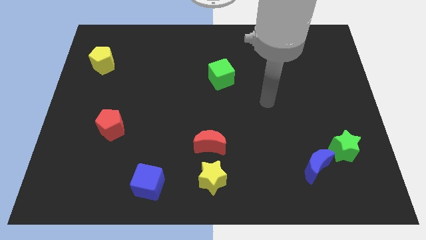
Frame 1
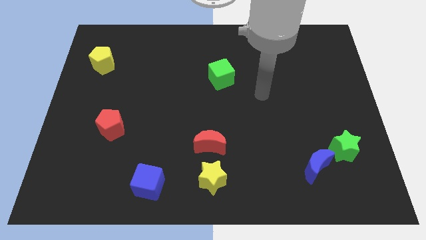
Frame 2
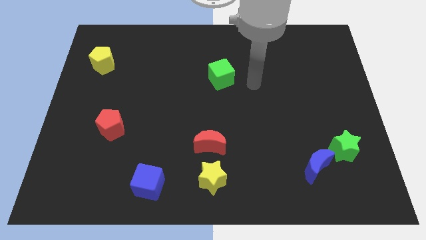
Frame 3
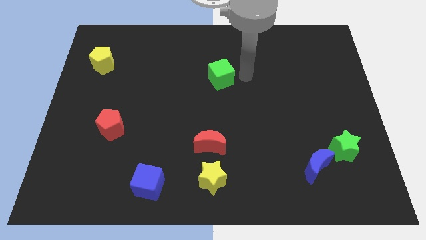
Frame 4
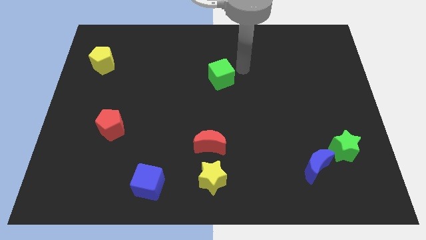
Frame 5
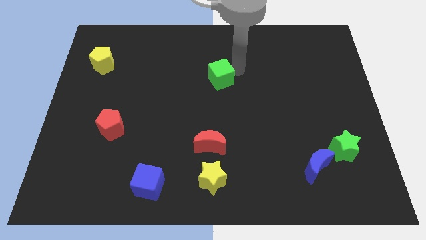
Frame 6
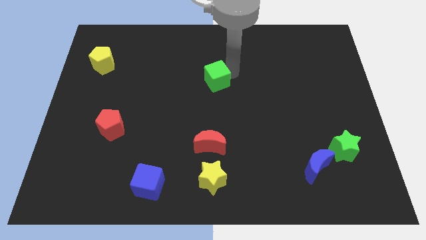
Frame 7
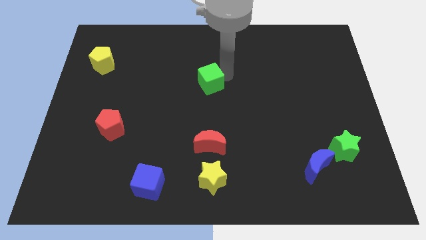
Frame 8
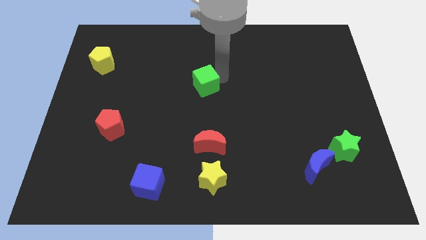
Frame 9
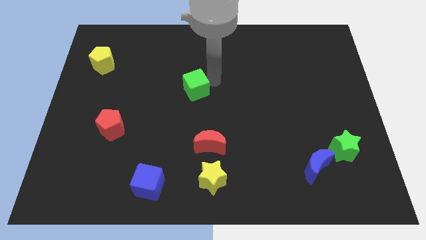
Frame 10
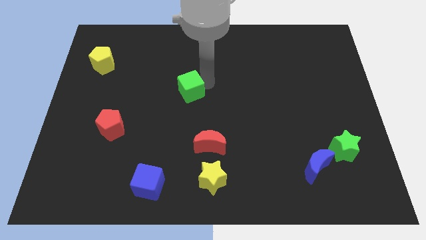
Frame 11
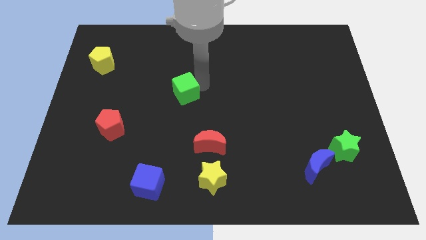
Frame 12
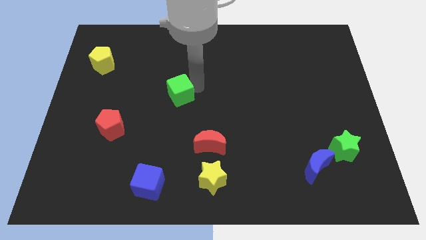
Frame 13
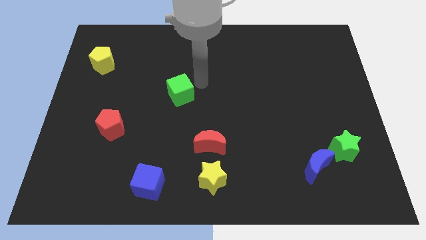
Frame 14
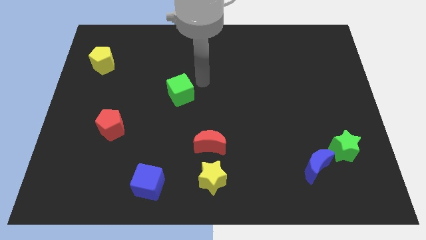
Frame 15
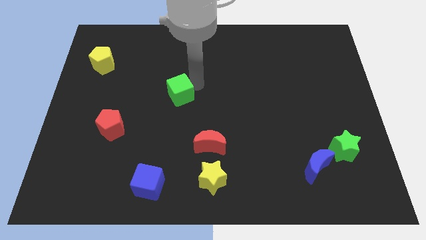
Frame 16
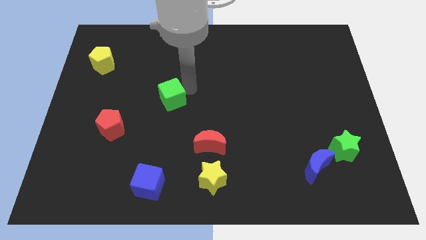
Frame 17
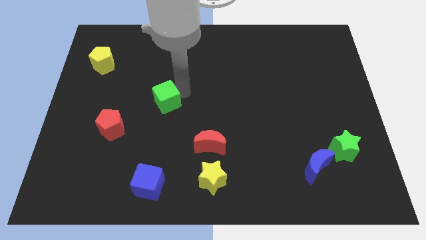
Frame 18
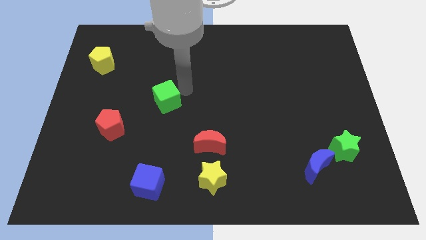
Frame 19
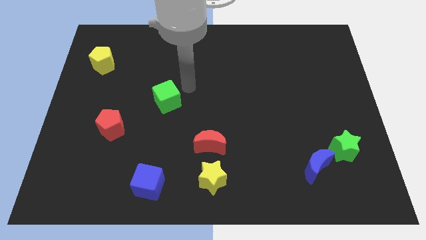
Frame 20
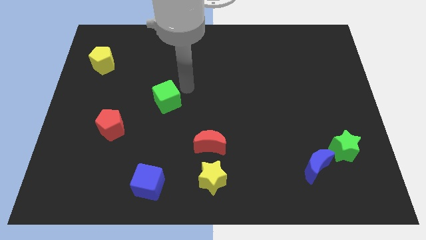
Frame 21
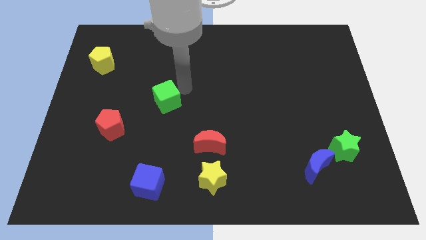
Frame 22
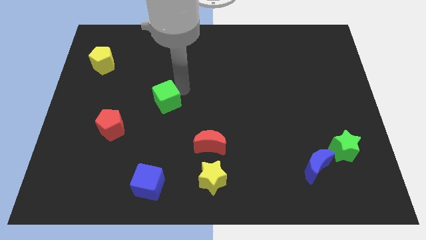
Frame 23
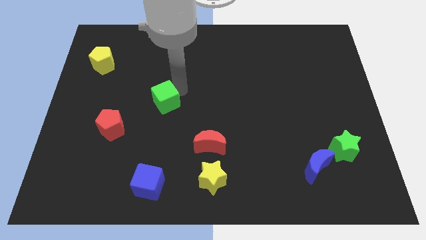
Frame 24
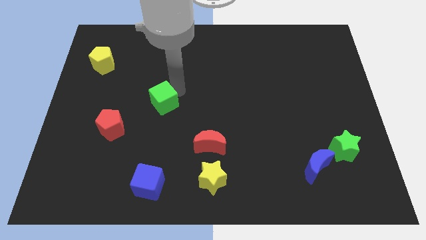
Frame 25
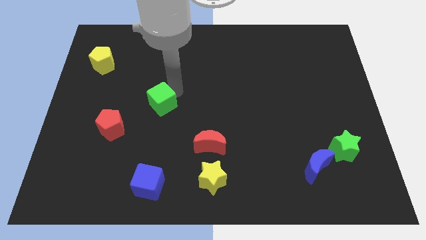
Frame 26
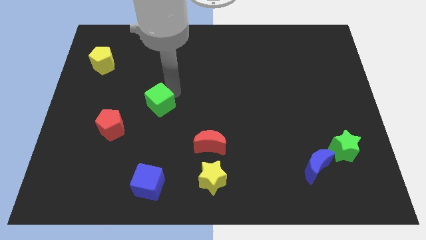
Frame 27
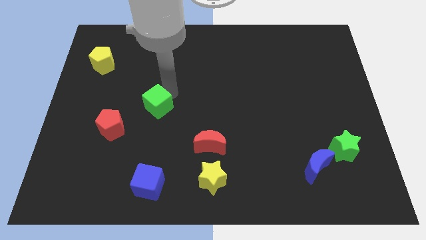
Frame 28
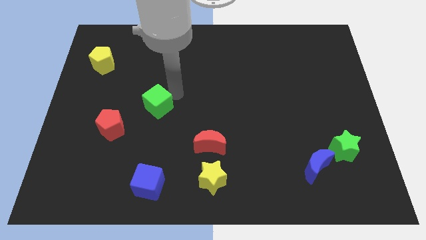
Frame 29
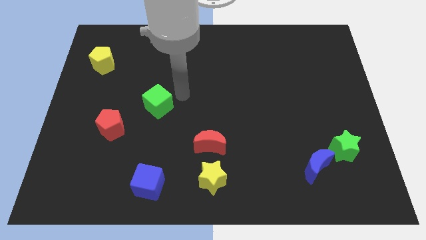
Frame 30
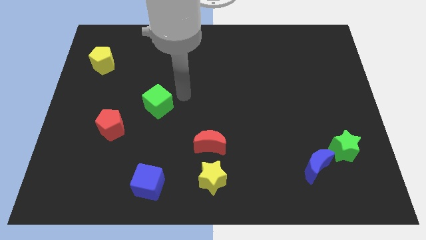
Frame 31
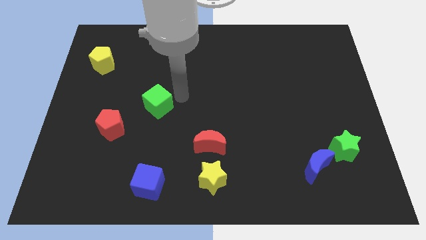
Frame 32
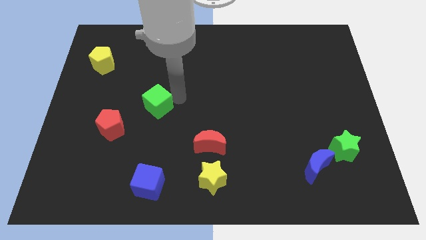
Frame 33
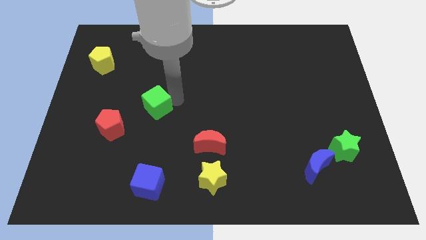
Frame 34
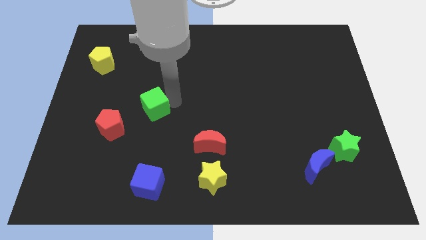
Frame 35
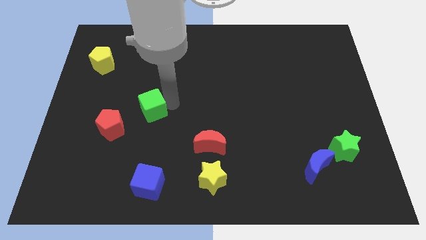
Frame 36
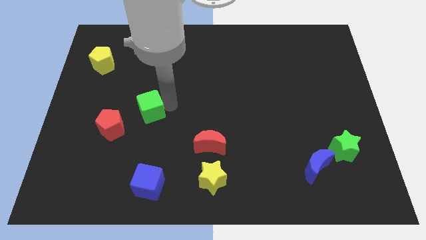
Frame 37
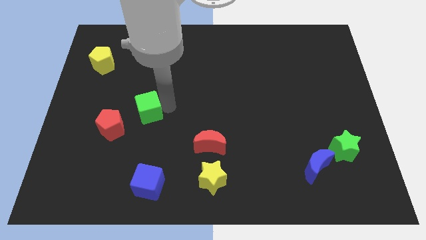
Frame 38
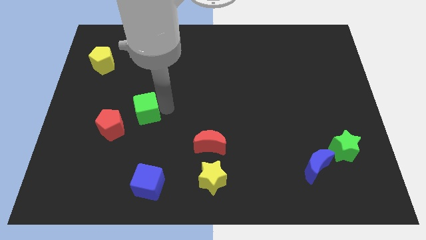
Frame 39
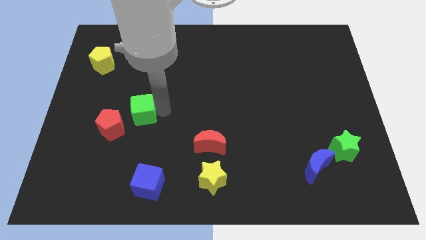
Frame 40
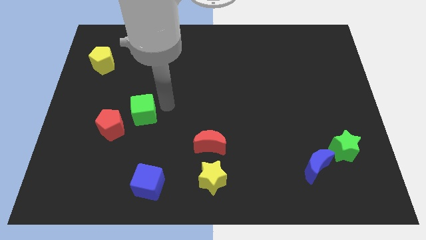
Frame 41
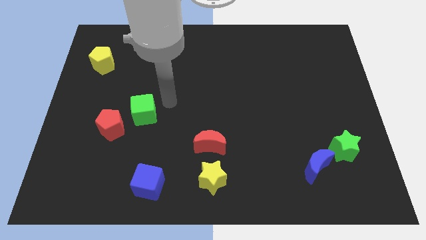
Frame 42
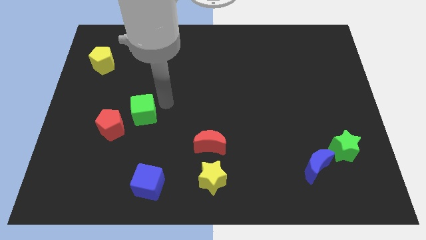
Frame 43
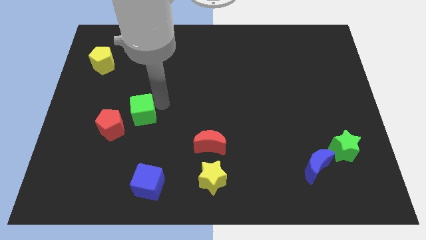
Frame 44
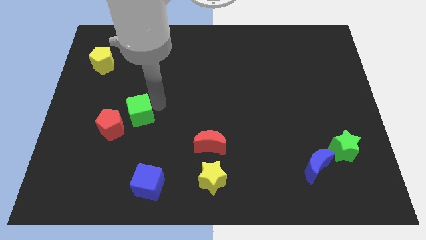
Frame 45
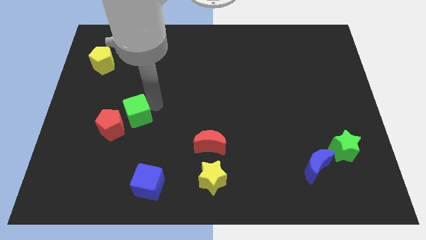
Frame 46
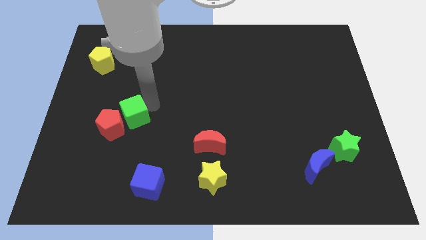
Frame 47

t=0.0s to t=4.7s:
move the green cube towards the red pentagon

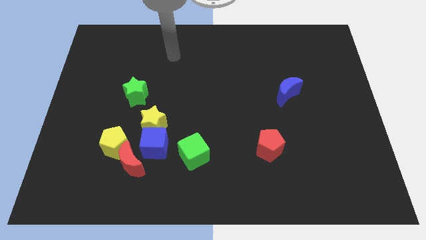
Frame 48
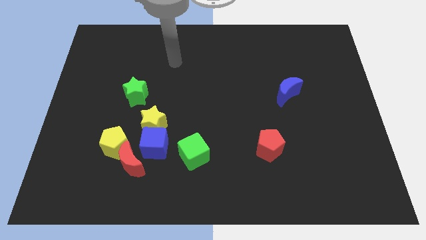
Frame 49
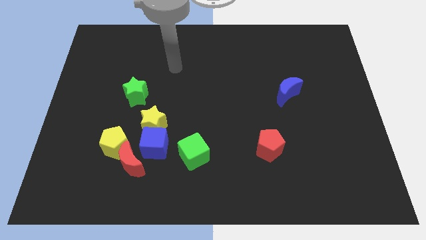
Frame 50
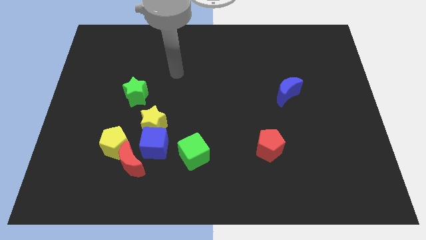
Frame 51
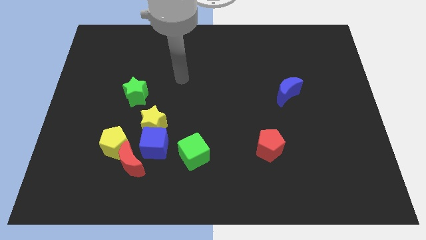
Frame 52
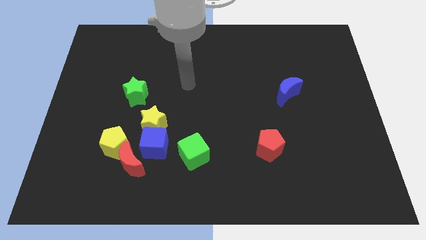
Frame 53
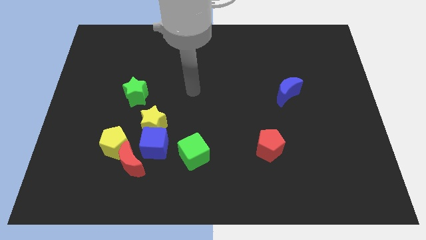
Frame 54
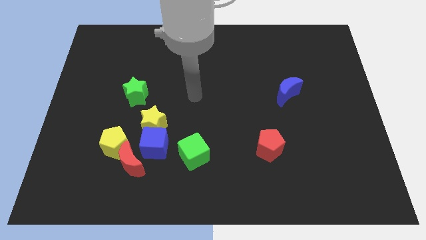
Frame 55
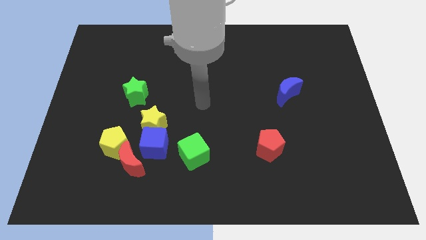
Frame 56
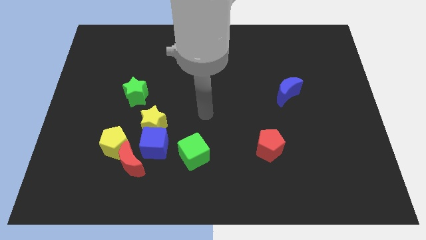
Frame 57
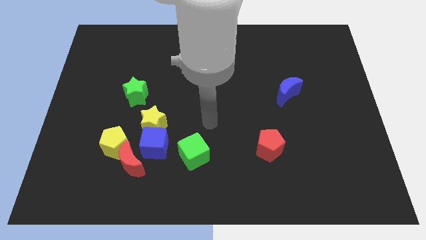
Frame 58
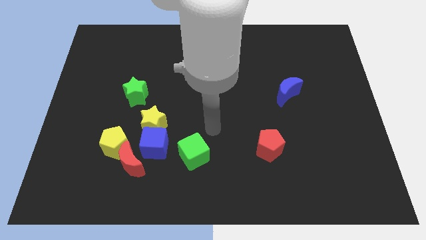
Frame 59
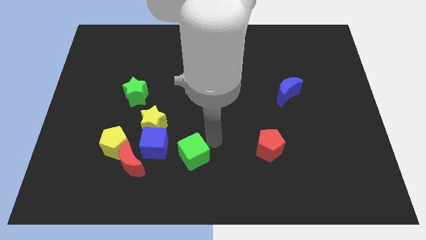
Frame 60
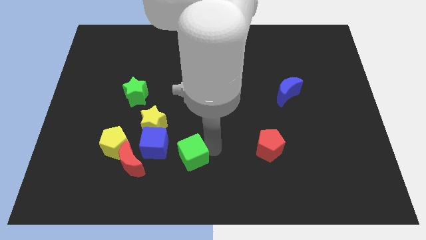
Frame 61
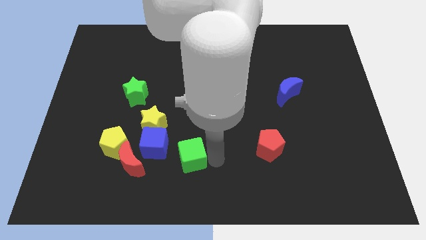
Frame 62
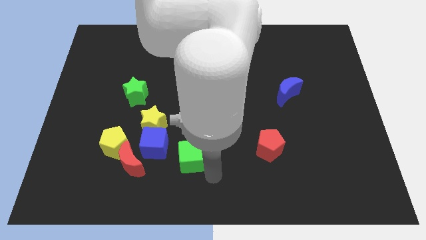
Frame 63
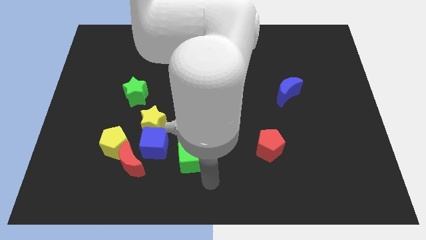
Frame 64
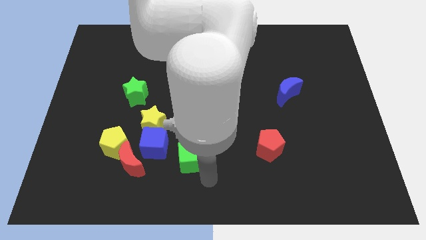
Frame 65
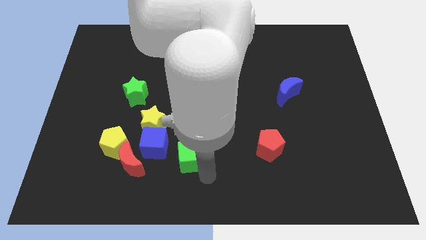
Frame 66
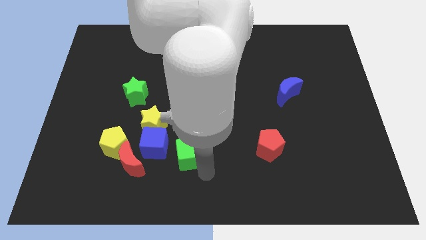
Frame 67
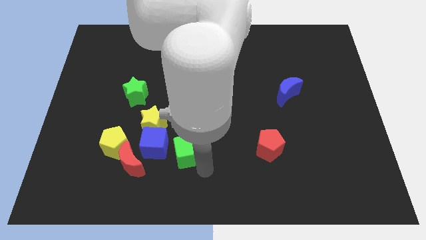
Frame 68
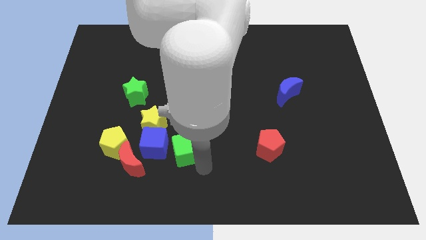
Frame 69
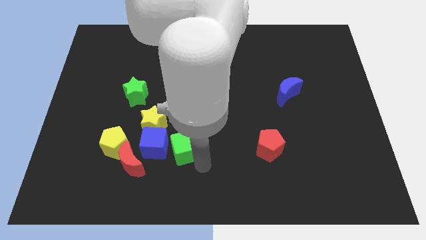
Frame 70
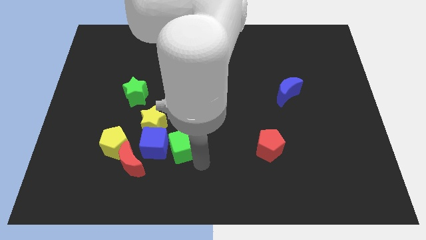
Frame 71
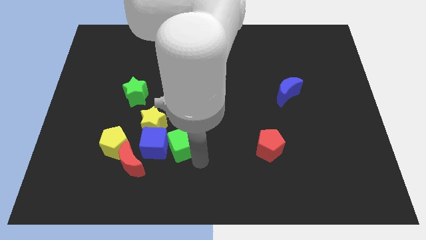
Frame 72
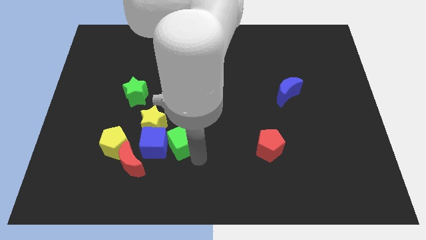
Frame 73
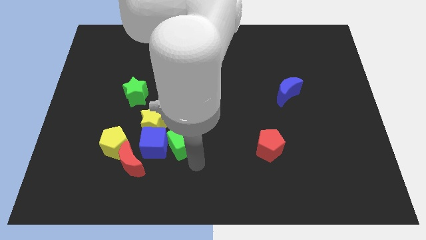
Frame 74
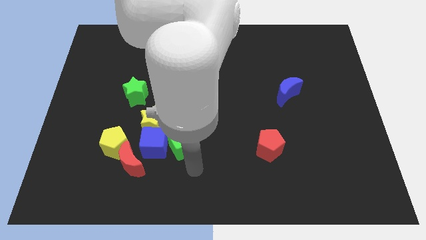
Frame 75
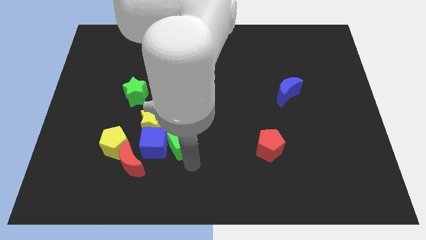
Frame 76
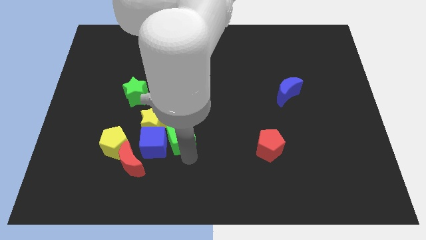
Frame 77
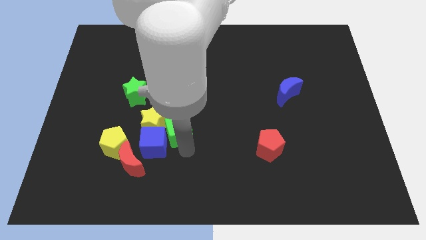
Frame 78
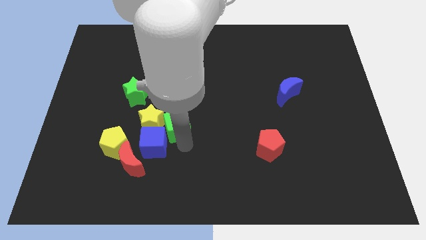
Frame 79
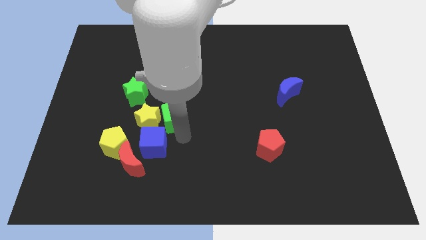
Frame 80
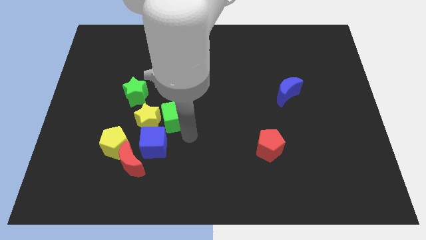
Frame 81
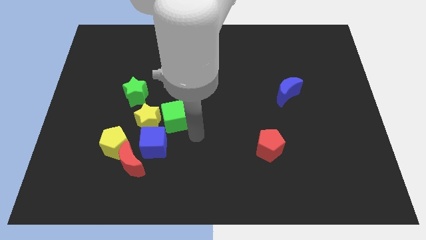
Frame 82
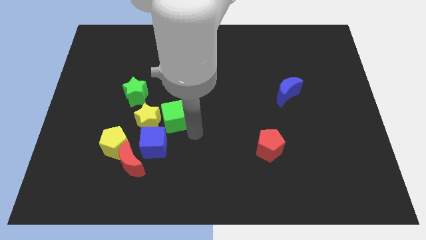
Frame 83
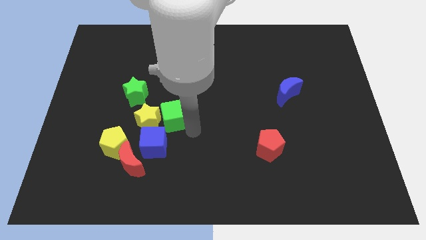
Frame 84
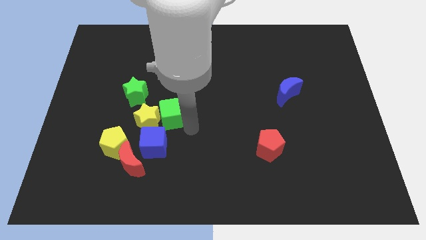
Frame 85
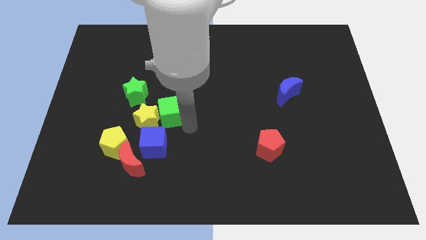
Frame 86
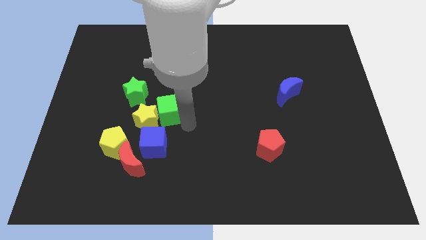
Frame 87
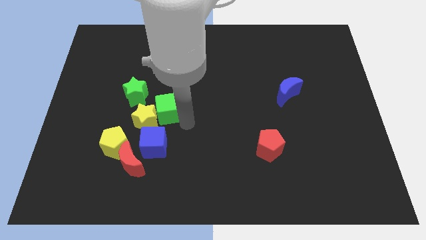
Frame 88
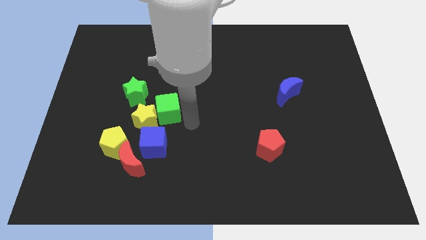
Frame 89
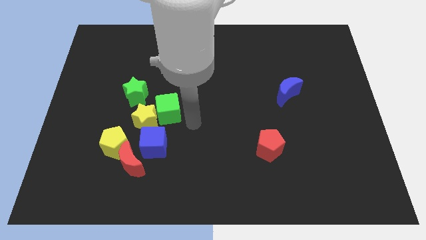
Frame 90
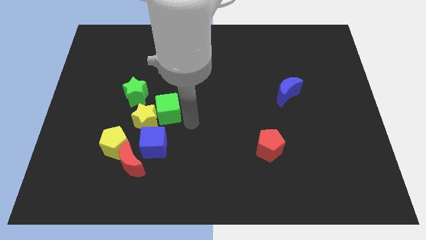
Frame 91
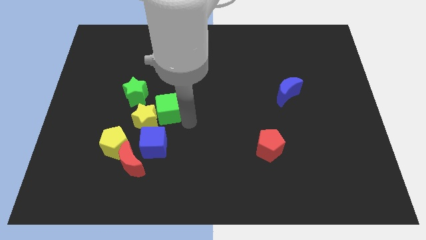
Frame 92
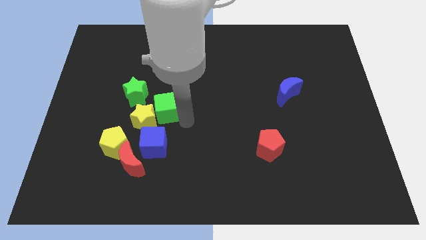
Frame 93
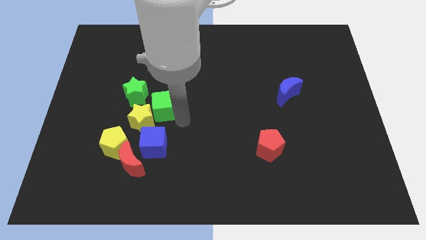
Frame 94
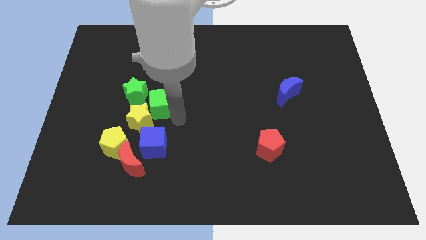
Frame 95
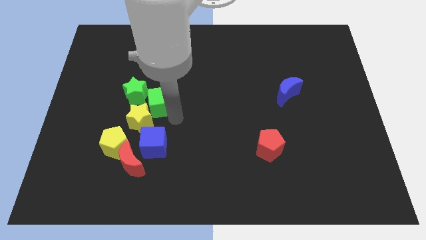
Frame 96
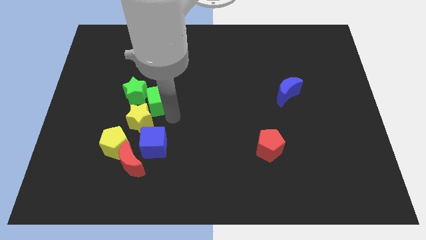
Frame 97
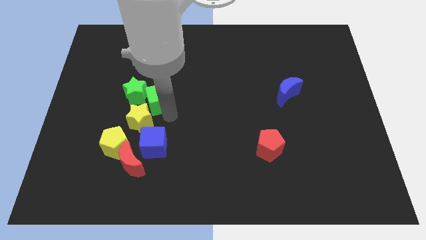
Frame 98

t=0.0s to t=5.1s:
put the green cube to the green star
